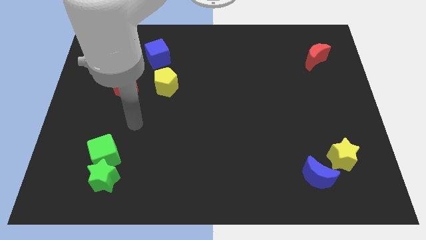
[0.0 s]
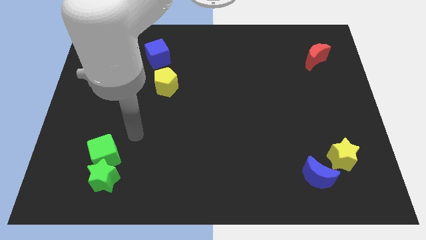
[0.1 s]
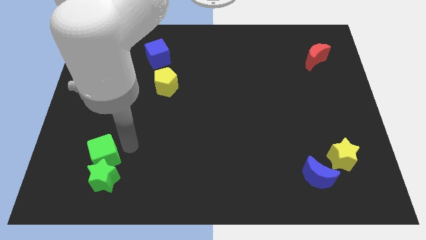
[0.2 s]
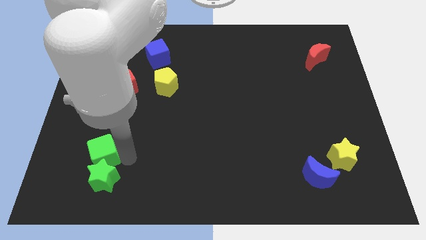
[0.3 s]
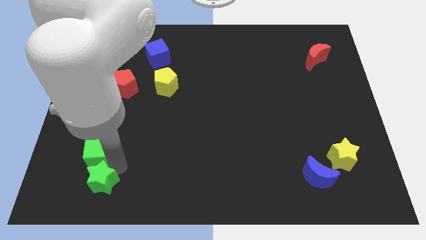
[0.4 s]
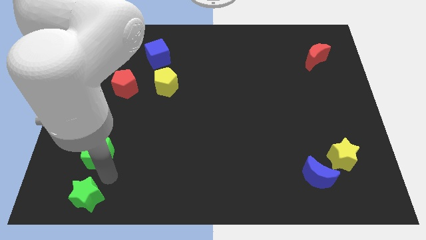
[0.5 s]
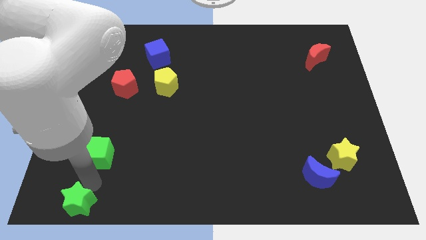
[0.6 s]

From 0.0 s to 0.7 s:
move the green cube away from the green star

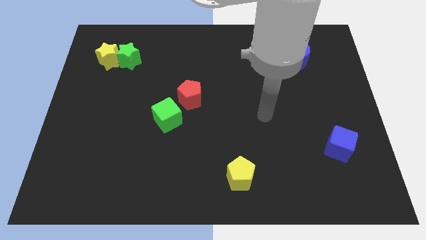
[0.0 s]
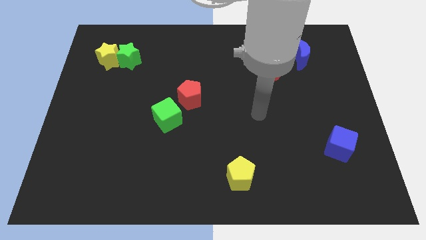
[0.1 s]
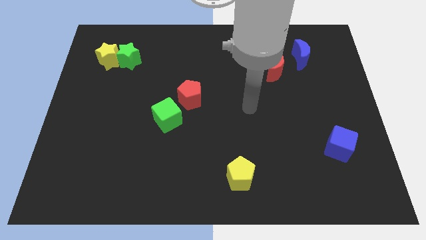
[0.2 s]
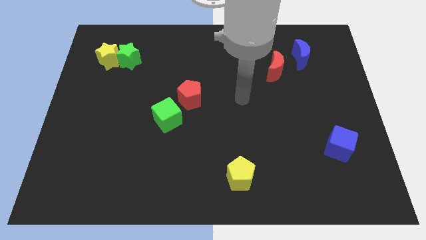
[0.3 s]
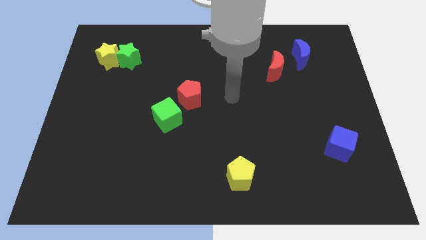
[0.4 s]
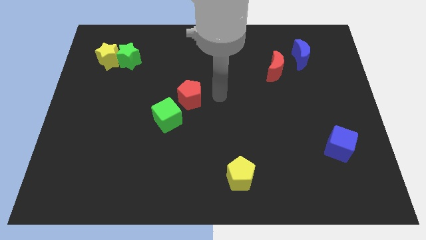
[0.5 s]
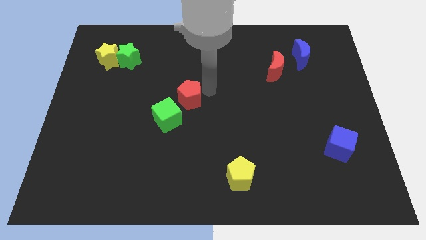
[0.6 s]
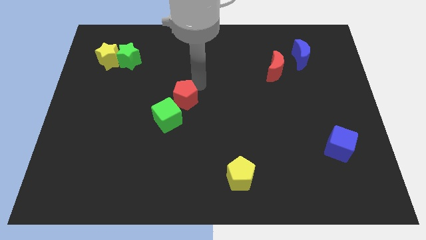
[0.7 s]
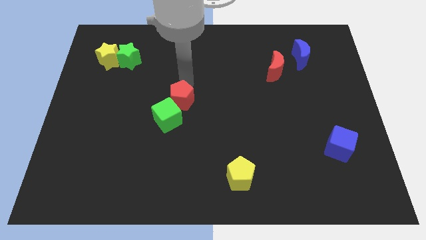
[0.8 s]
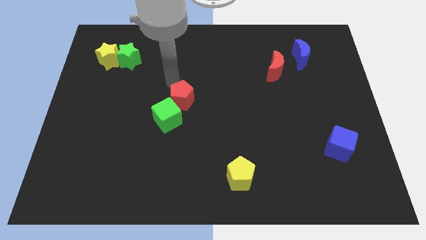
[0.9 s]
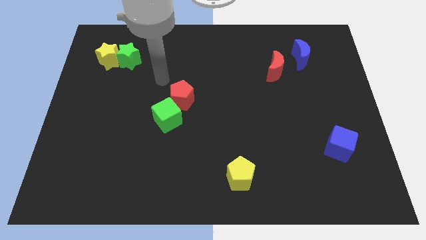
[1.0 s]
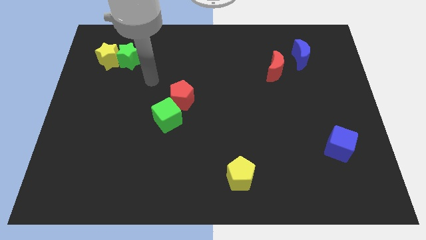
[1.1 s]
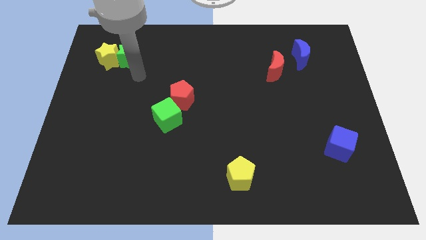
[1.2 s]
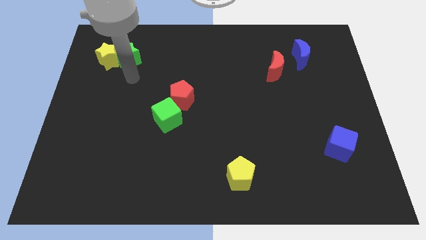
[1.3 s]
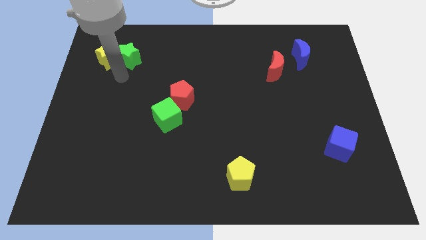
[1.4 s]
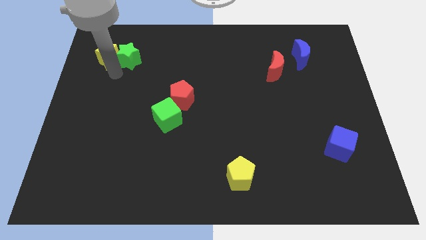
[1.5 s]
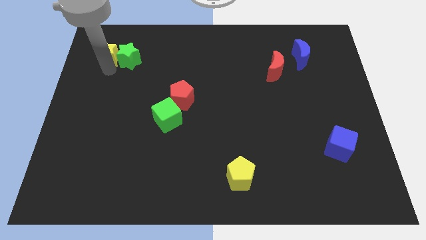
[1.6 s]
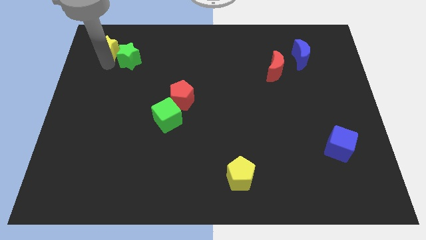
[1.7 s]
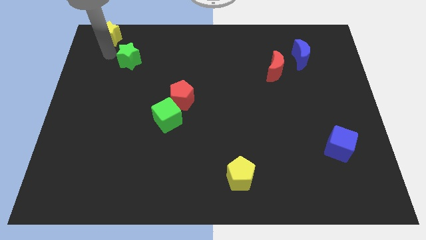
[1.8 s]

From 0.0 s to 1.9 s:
separate the green star from the yellow star

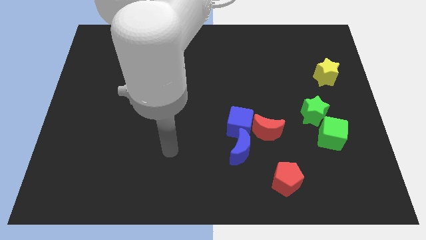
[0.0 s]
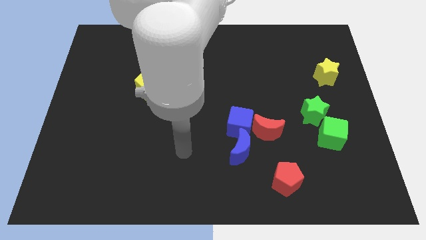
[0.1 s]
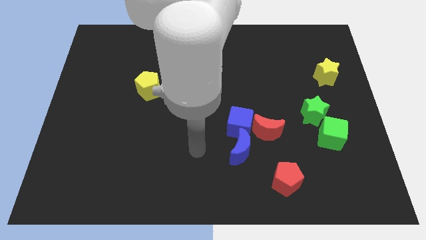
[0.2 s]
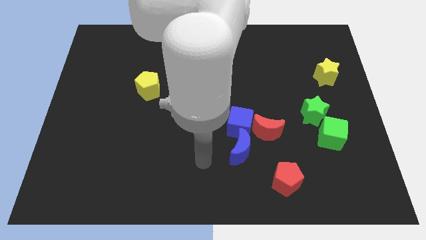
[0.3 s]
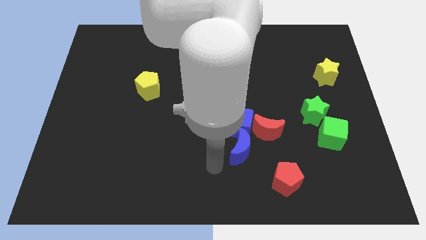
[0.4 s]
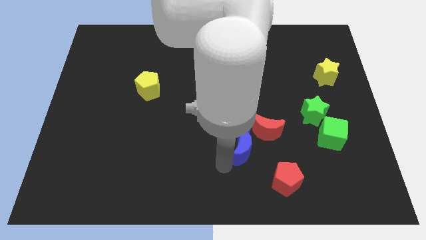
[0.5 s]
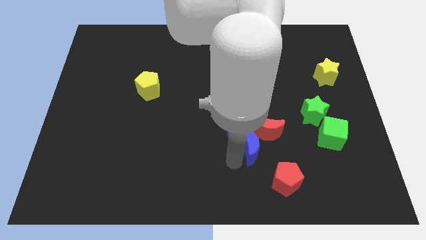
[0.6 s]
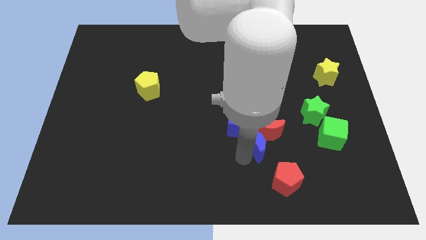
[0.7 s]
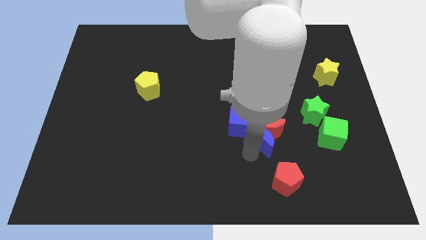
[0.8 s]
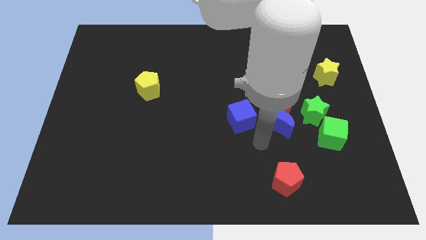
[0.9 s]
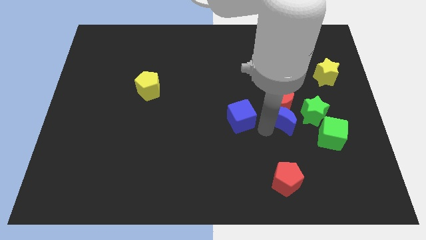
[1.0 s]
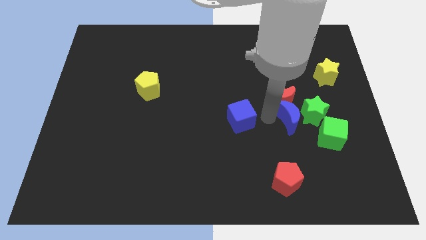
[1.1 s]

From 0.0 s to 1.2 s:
pull the blue cube apart from the red moon and blue moon

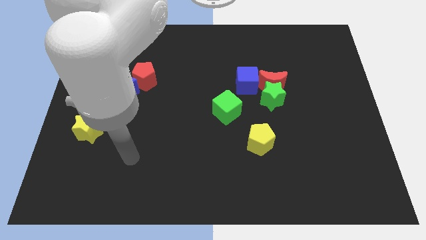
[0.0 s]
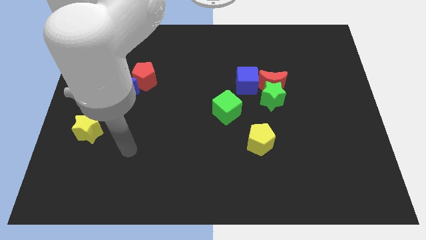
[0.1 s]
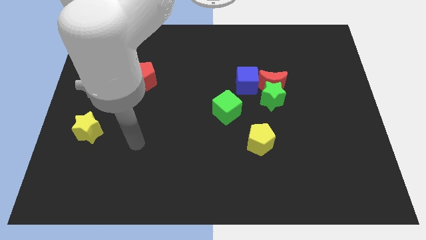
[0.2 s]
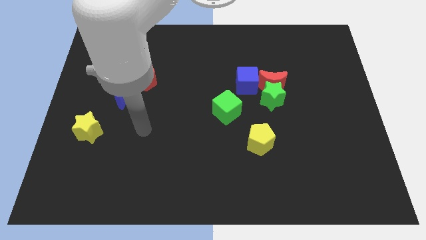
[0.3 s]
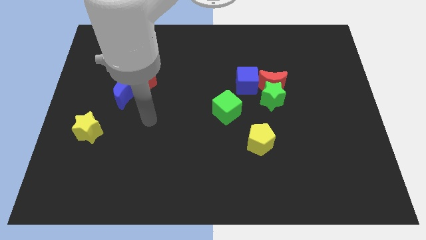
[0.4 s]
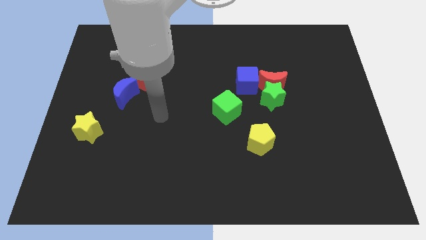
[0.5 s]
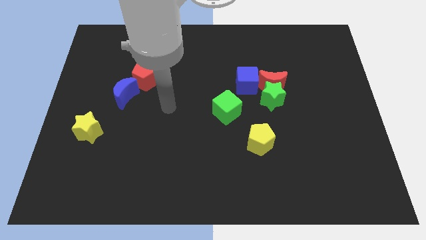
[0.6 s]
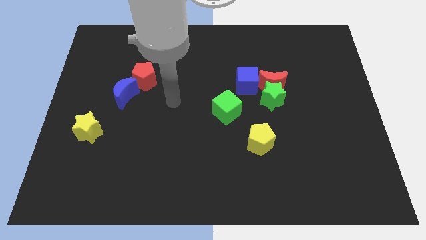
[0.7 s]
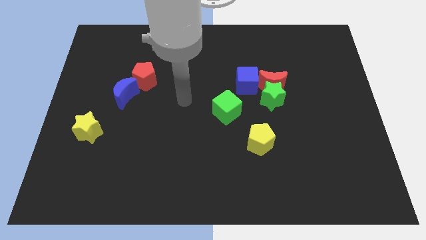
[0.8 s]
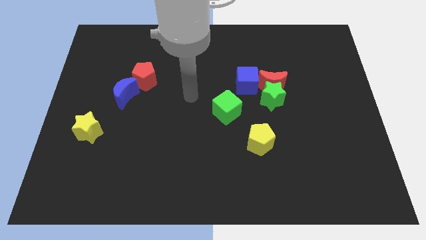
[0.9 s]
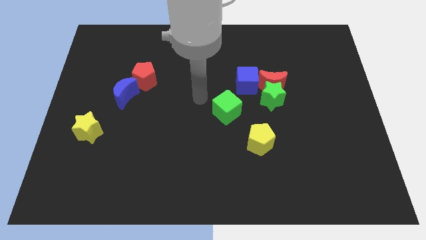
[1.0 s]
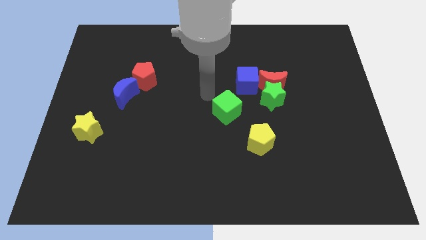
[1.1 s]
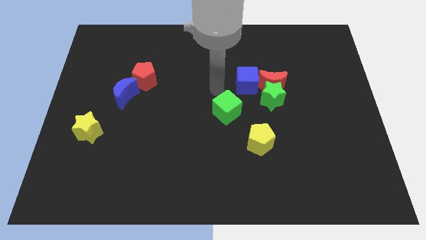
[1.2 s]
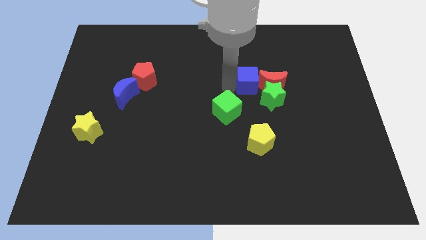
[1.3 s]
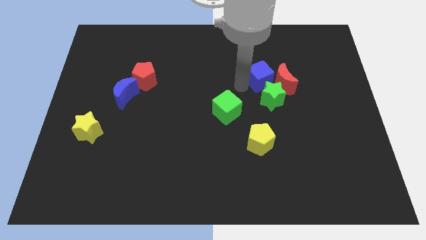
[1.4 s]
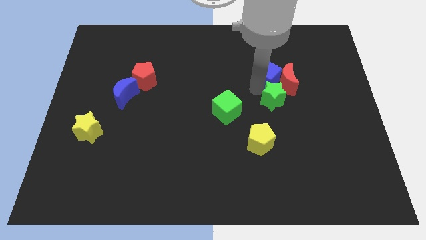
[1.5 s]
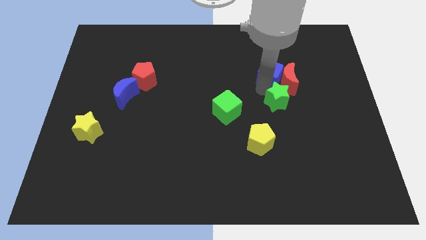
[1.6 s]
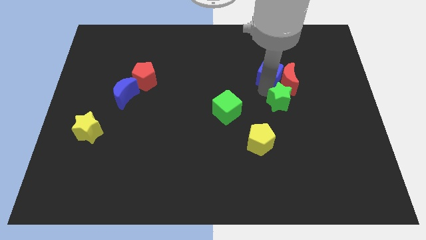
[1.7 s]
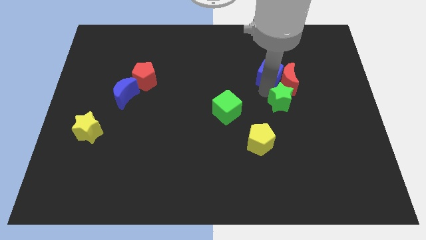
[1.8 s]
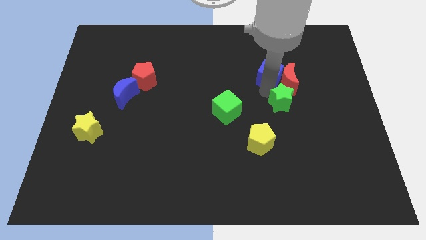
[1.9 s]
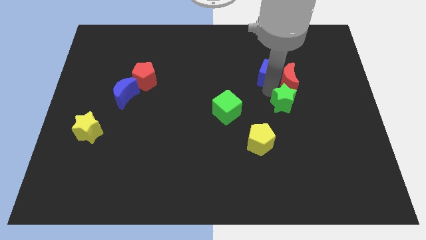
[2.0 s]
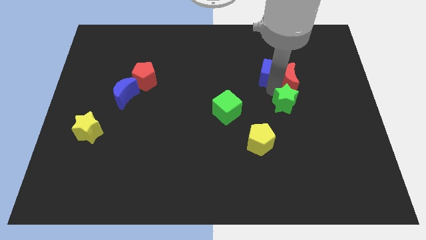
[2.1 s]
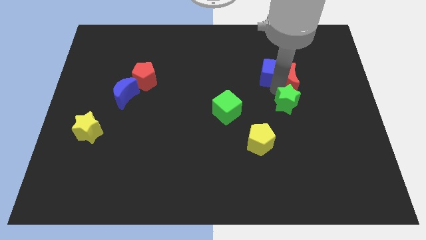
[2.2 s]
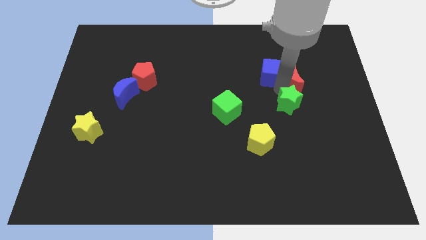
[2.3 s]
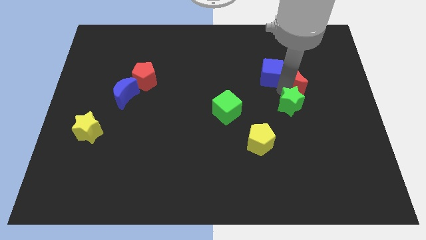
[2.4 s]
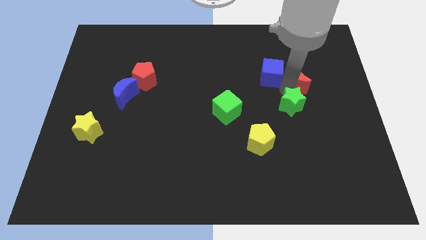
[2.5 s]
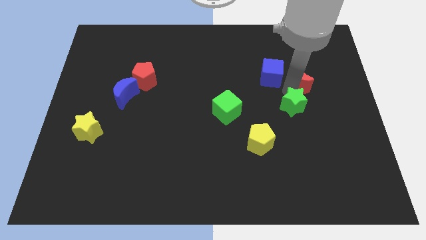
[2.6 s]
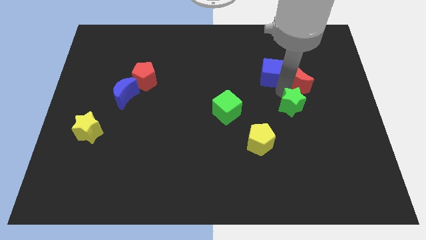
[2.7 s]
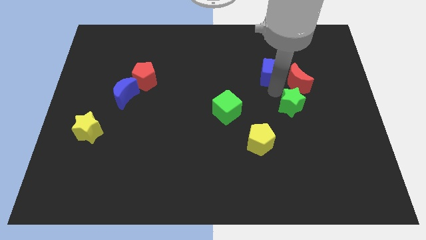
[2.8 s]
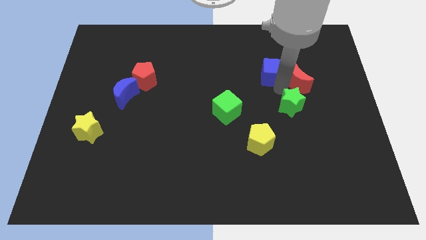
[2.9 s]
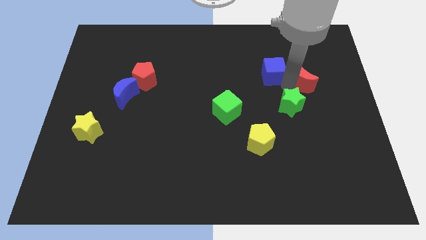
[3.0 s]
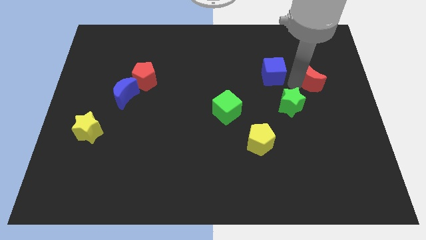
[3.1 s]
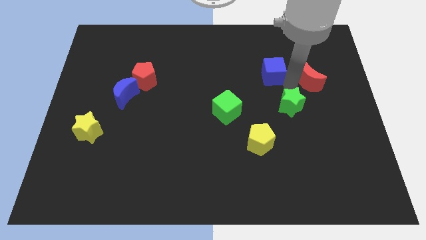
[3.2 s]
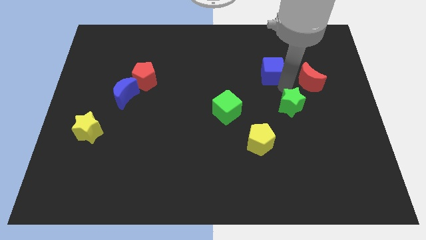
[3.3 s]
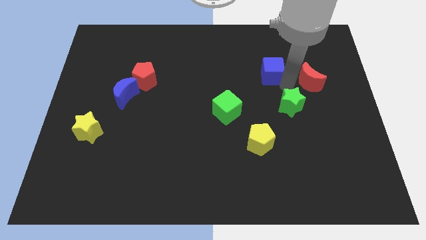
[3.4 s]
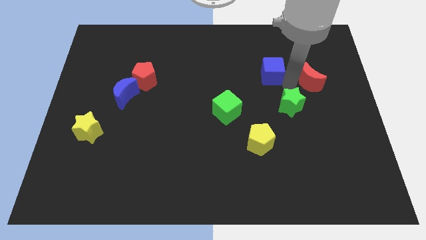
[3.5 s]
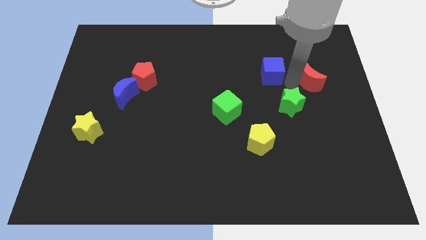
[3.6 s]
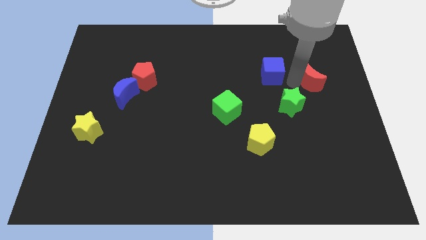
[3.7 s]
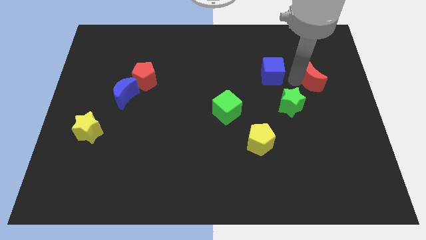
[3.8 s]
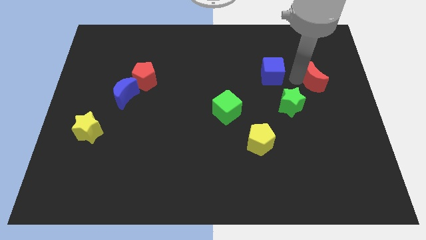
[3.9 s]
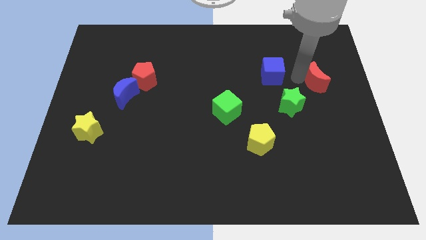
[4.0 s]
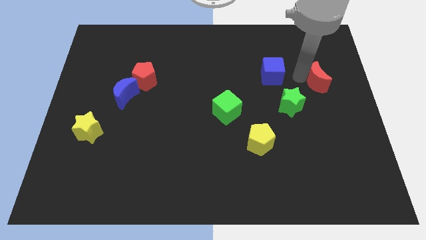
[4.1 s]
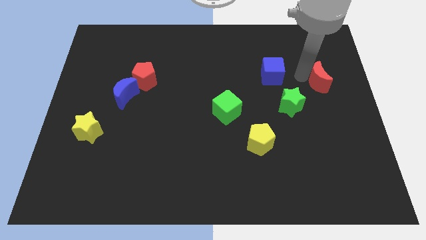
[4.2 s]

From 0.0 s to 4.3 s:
move the red moon away from the green star and blue cube

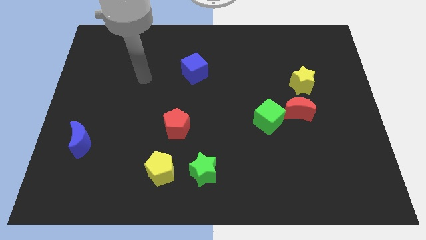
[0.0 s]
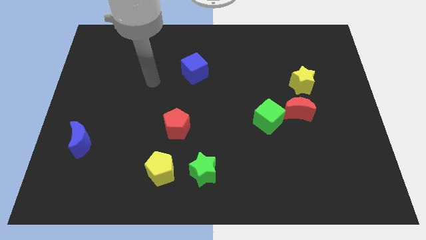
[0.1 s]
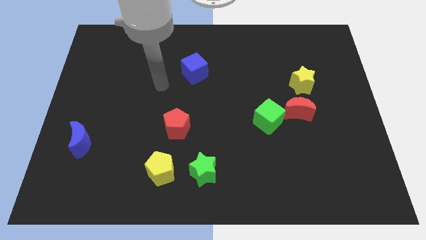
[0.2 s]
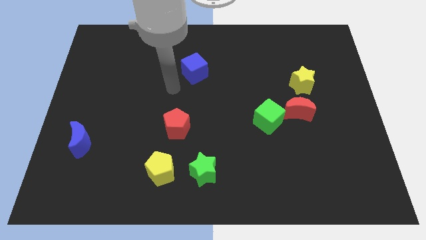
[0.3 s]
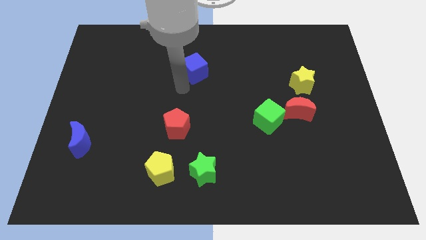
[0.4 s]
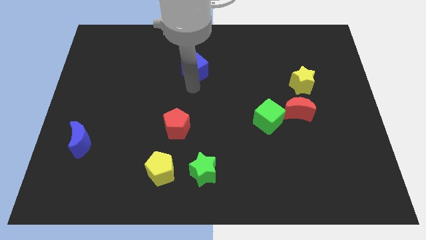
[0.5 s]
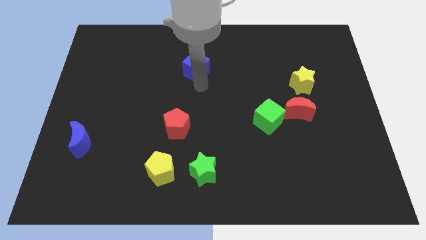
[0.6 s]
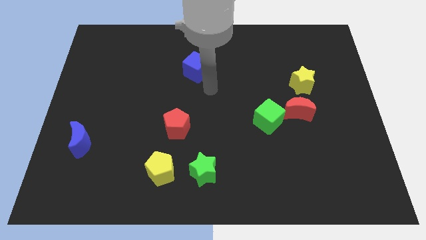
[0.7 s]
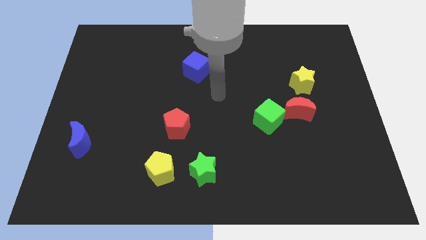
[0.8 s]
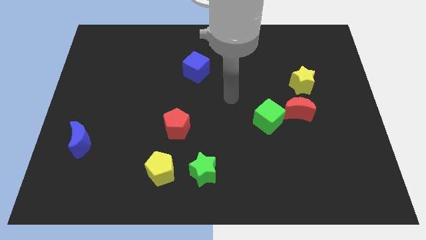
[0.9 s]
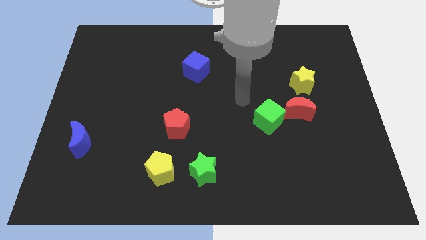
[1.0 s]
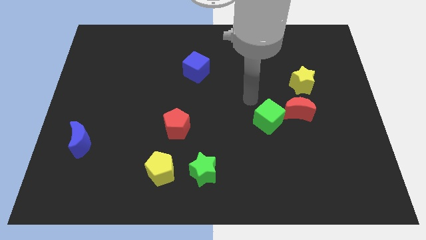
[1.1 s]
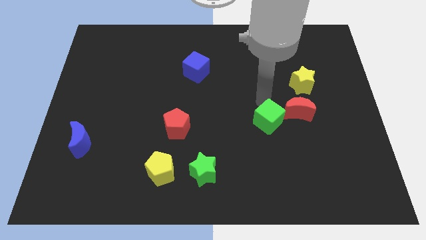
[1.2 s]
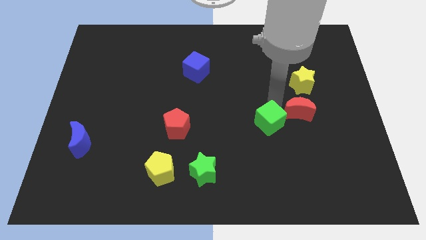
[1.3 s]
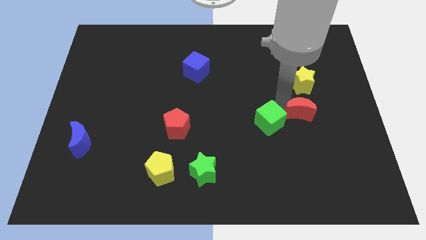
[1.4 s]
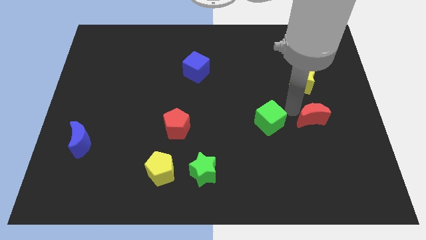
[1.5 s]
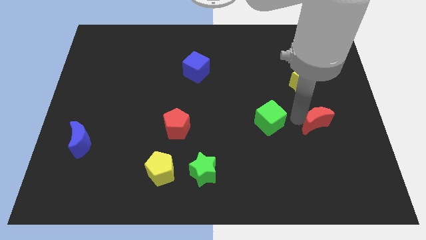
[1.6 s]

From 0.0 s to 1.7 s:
separate the green cube from the red moon
